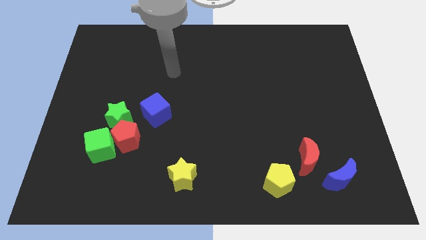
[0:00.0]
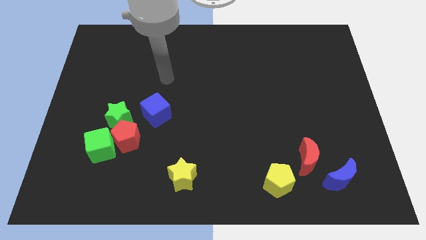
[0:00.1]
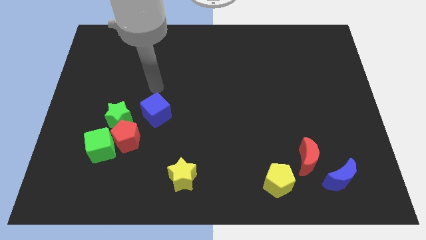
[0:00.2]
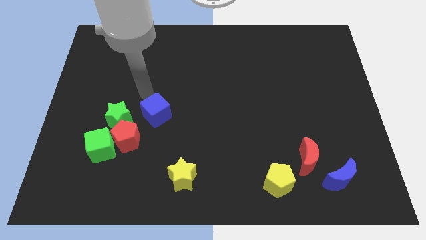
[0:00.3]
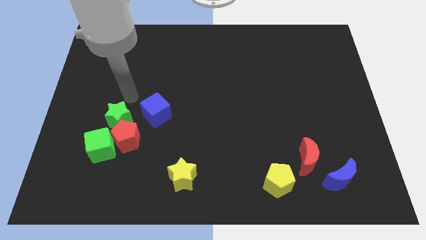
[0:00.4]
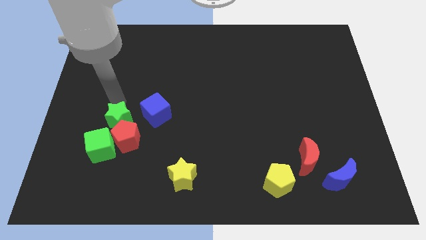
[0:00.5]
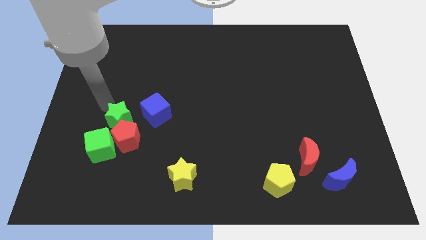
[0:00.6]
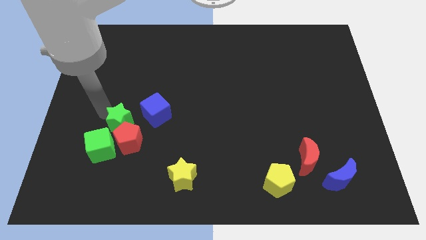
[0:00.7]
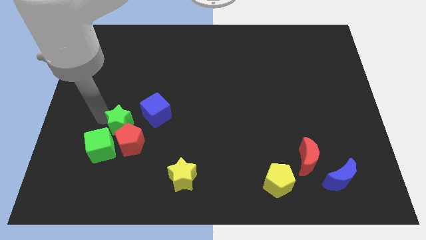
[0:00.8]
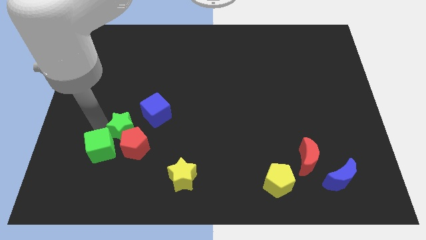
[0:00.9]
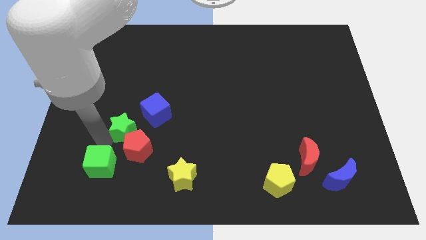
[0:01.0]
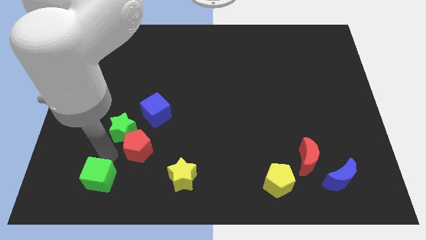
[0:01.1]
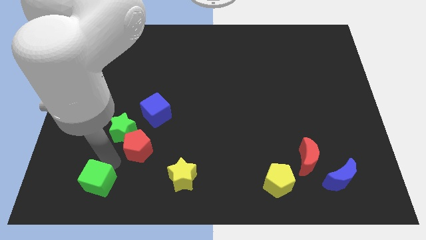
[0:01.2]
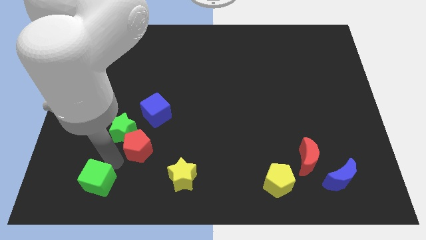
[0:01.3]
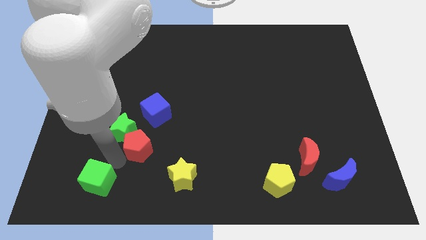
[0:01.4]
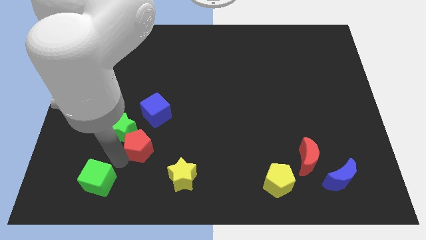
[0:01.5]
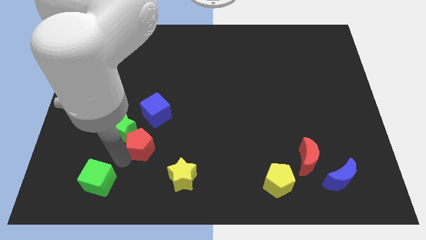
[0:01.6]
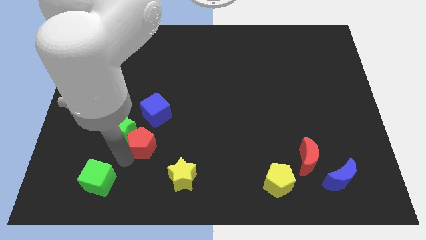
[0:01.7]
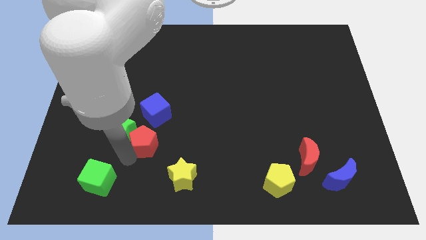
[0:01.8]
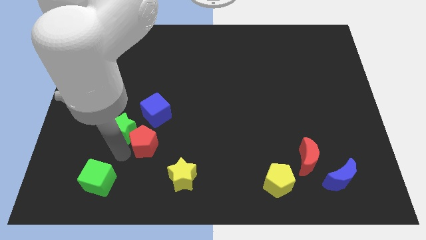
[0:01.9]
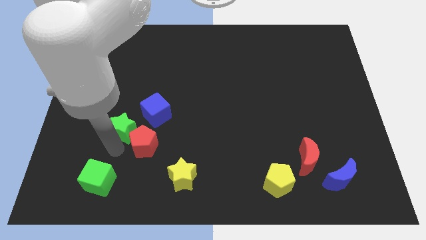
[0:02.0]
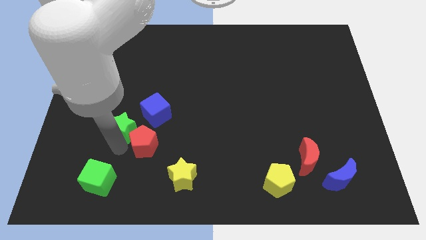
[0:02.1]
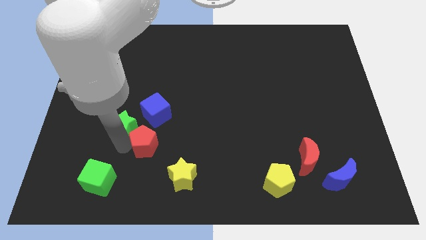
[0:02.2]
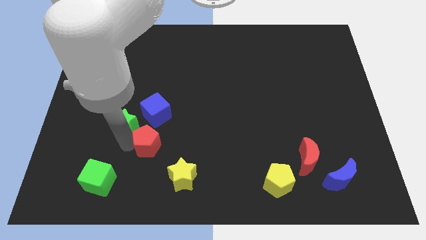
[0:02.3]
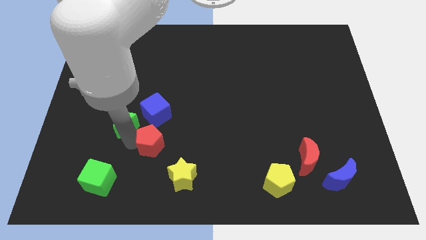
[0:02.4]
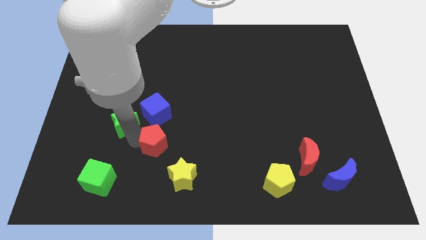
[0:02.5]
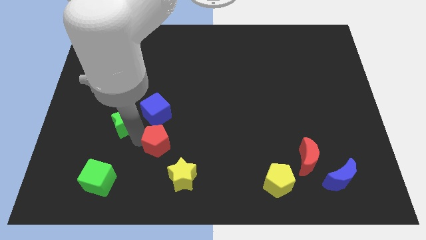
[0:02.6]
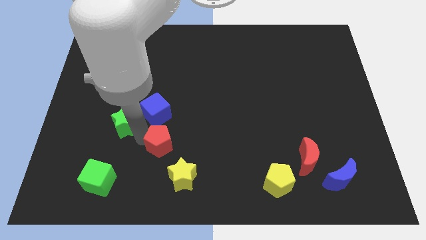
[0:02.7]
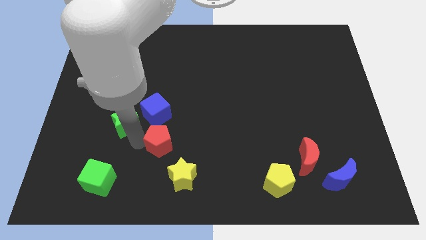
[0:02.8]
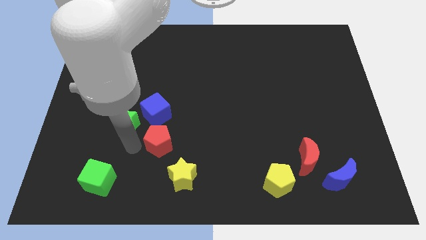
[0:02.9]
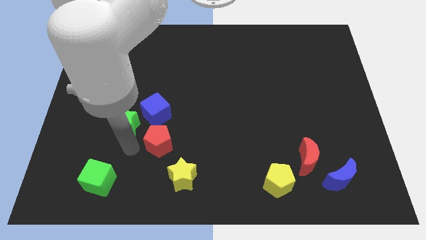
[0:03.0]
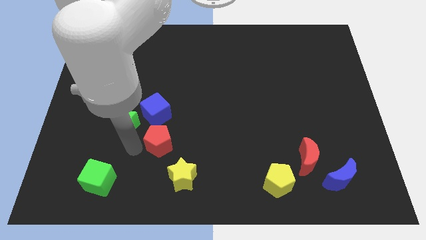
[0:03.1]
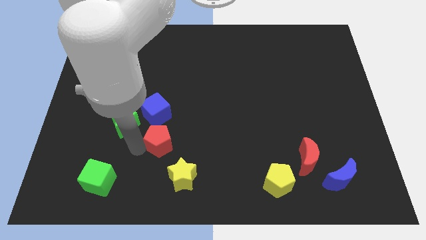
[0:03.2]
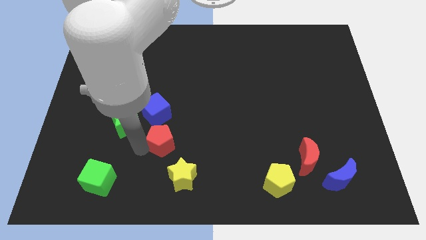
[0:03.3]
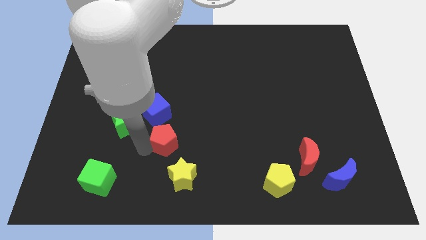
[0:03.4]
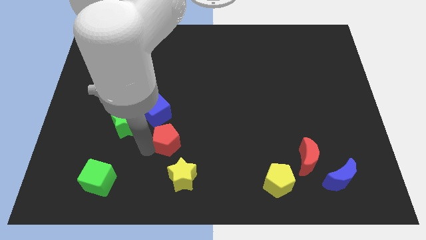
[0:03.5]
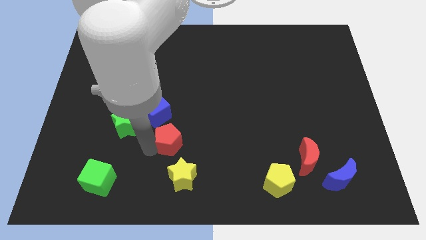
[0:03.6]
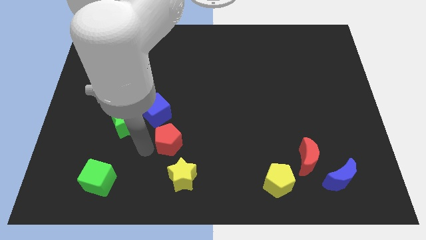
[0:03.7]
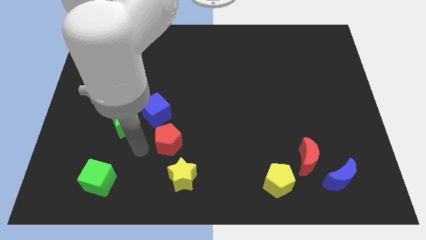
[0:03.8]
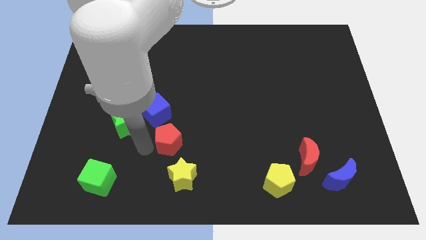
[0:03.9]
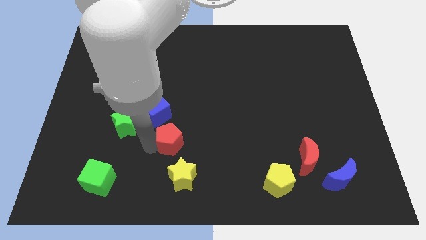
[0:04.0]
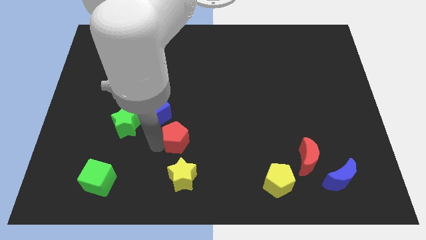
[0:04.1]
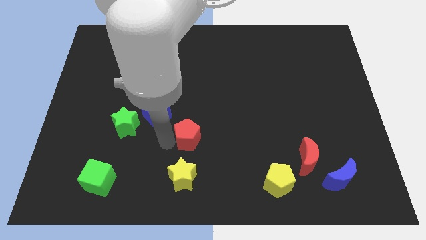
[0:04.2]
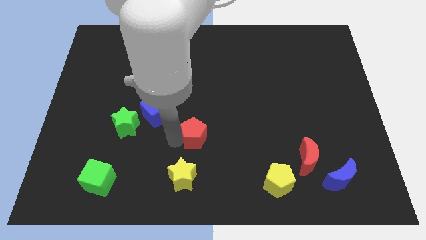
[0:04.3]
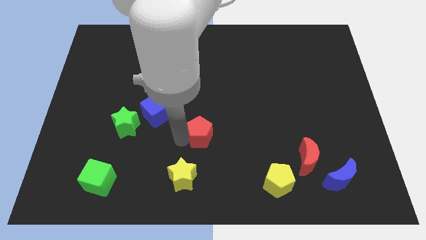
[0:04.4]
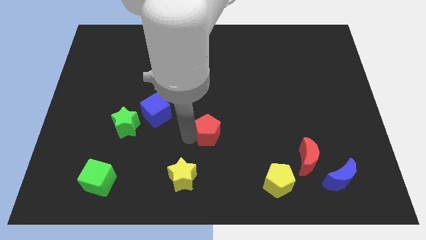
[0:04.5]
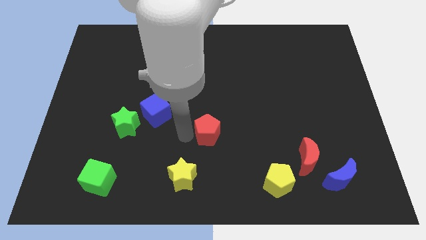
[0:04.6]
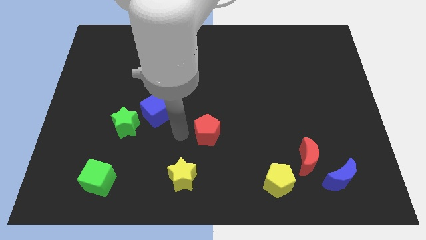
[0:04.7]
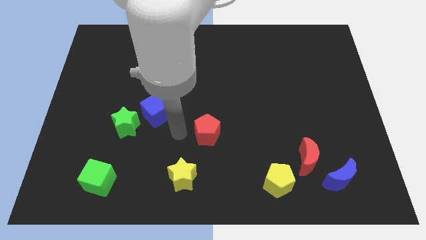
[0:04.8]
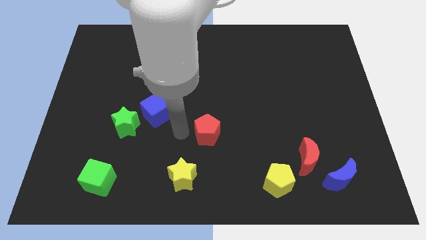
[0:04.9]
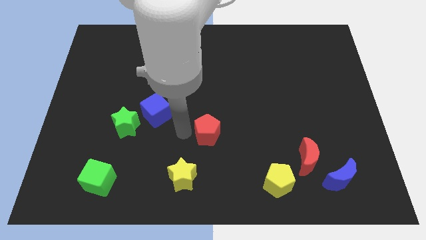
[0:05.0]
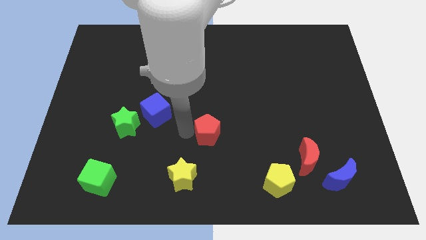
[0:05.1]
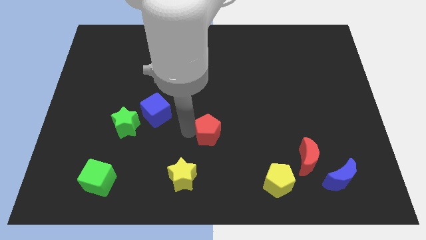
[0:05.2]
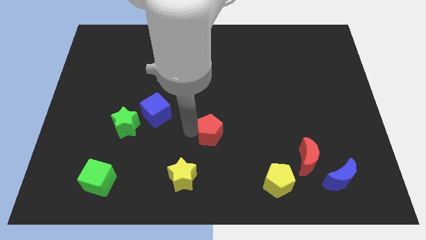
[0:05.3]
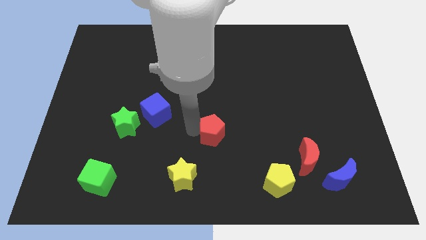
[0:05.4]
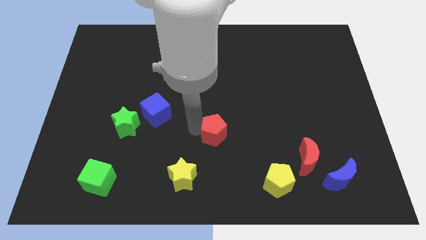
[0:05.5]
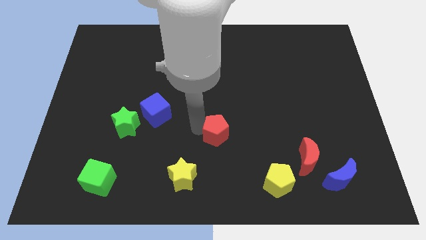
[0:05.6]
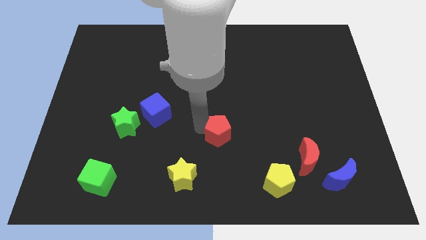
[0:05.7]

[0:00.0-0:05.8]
push the red pentagon to the right

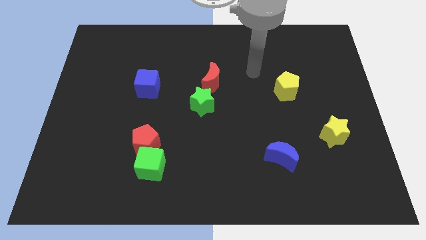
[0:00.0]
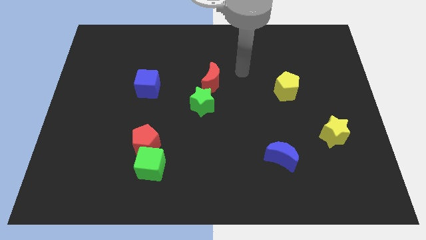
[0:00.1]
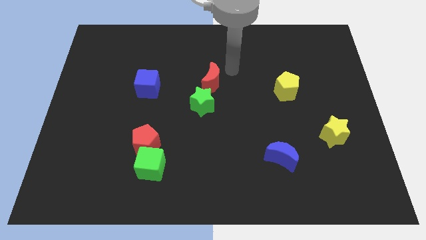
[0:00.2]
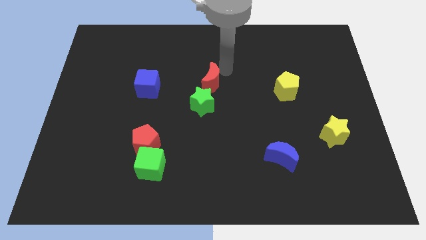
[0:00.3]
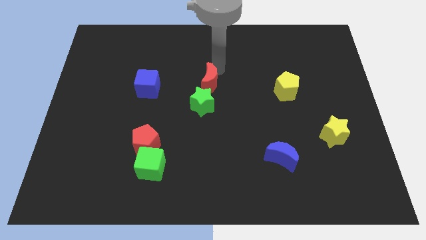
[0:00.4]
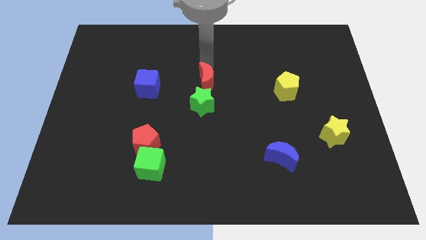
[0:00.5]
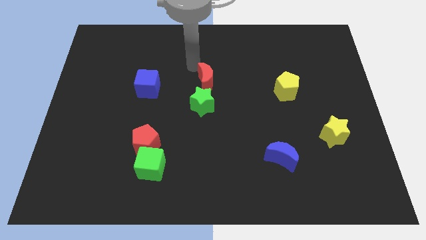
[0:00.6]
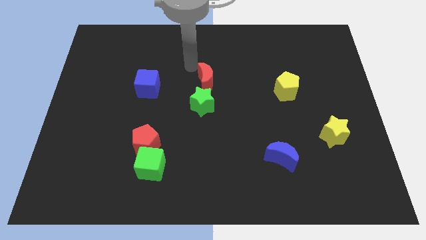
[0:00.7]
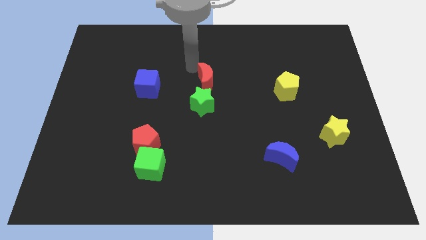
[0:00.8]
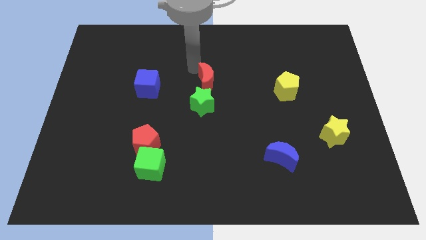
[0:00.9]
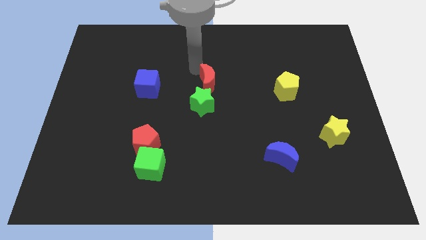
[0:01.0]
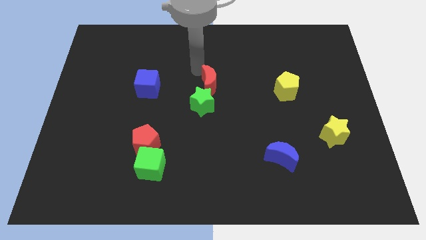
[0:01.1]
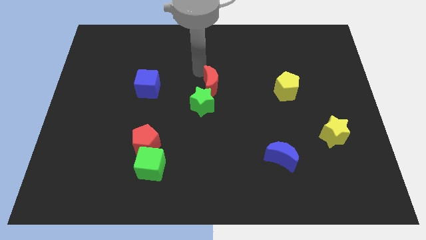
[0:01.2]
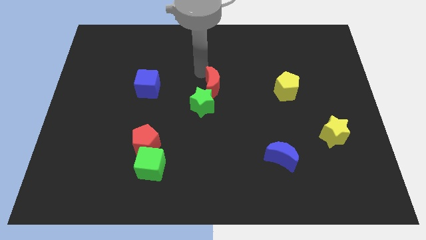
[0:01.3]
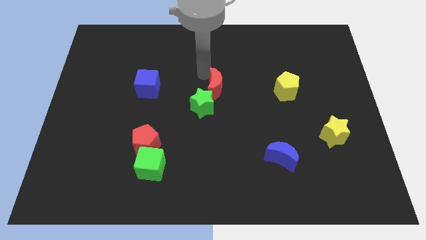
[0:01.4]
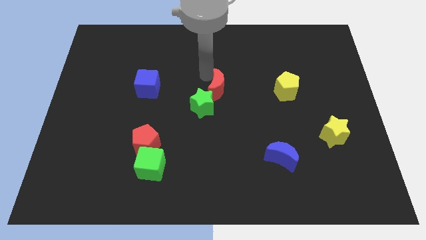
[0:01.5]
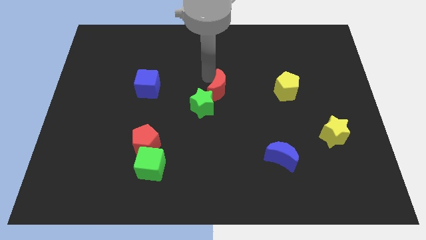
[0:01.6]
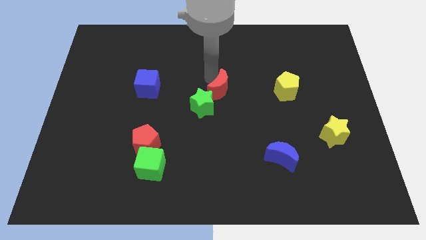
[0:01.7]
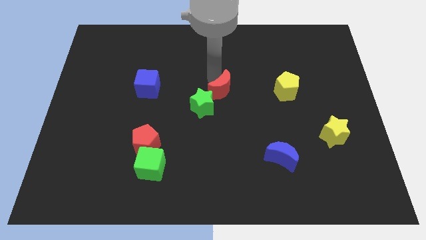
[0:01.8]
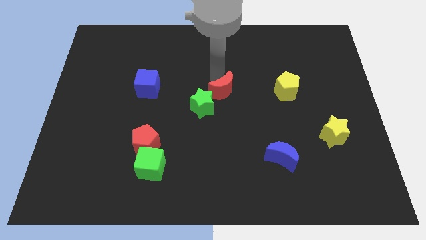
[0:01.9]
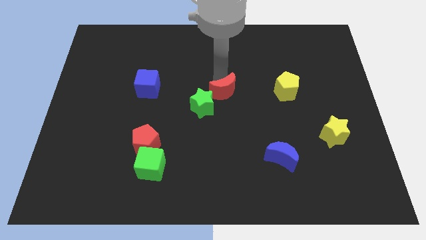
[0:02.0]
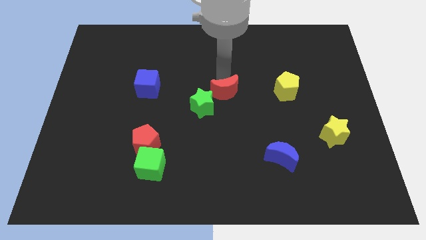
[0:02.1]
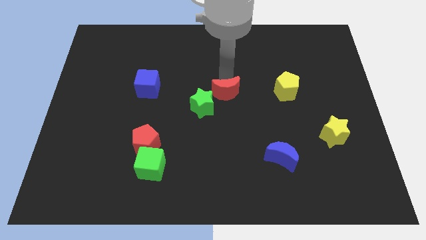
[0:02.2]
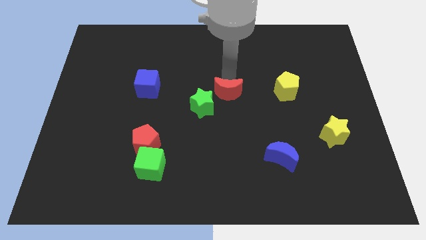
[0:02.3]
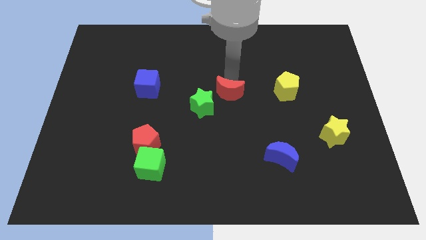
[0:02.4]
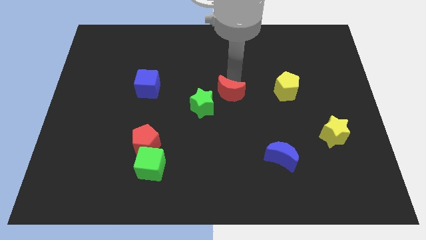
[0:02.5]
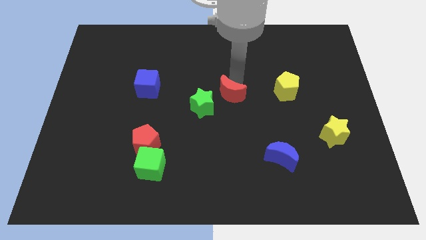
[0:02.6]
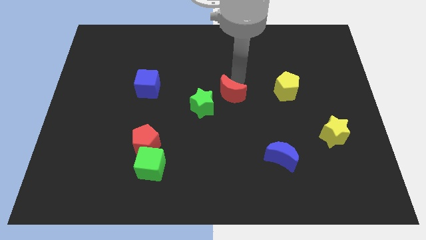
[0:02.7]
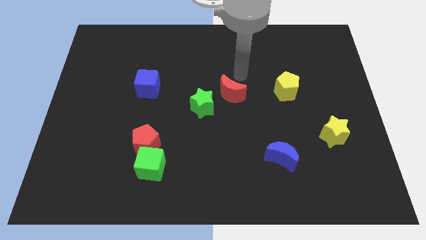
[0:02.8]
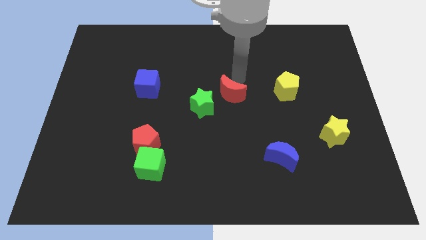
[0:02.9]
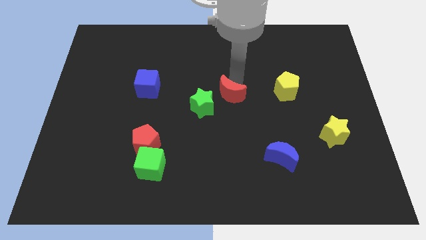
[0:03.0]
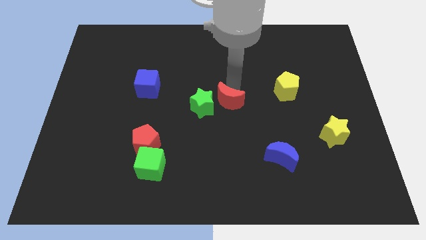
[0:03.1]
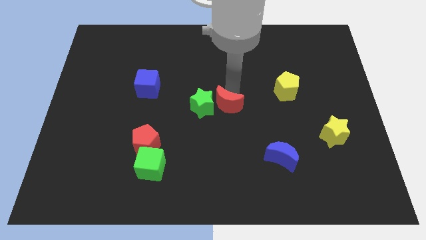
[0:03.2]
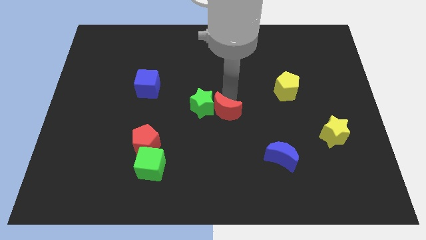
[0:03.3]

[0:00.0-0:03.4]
move the red moon a little bit downwards
